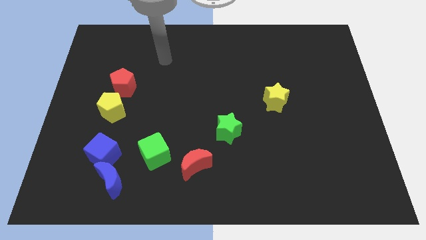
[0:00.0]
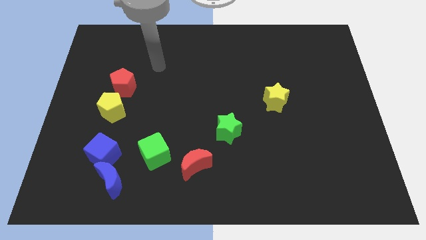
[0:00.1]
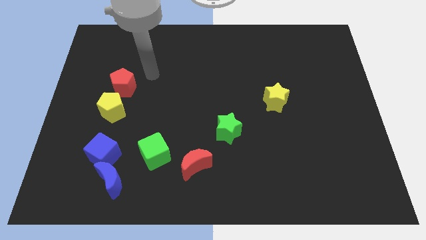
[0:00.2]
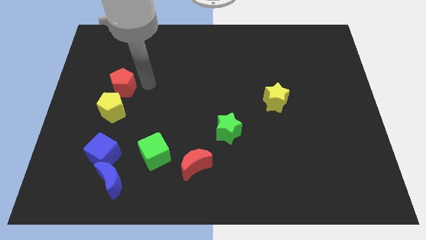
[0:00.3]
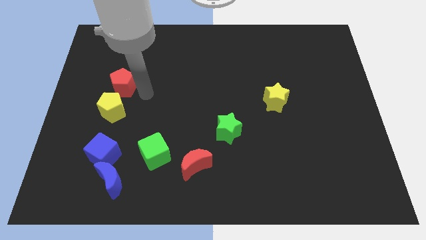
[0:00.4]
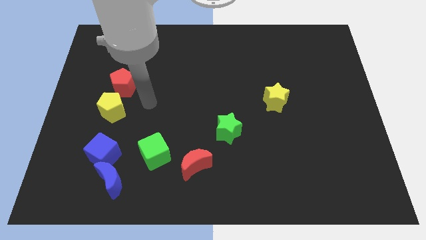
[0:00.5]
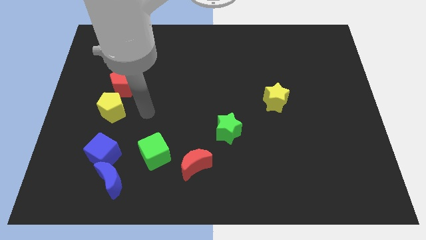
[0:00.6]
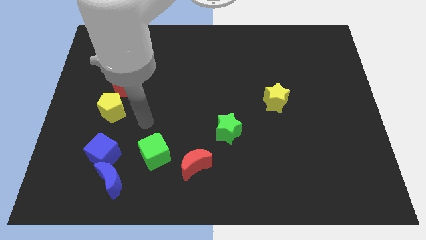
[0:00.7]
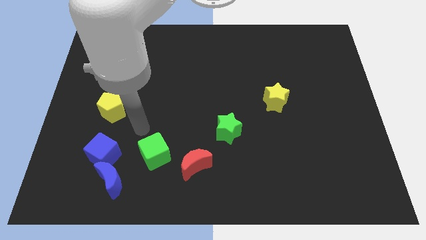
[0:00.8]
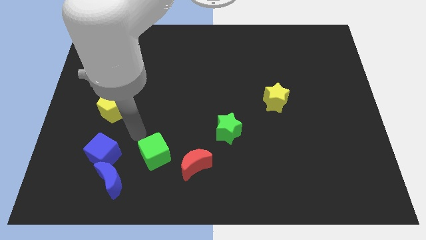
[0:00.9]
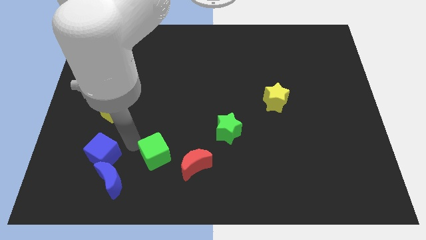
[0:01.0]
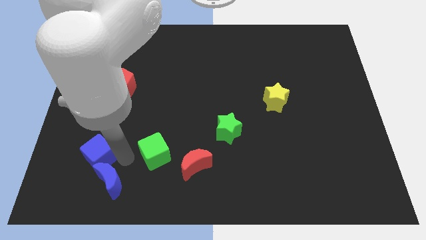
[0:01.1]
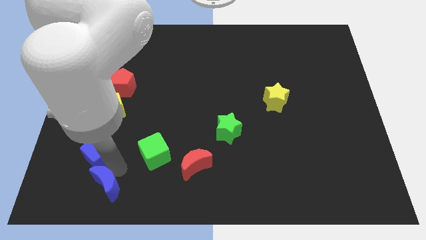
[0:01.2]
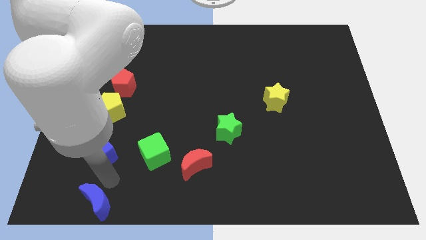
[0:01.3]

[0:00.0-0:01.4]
separate the blue cube from the blue moon

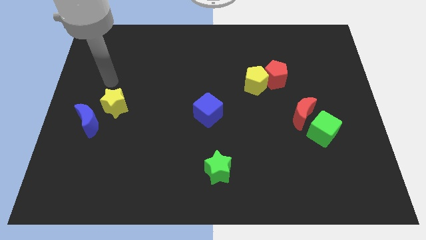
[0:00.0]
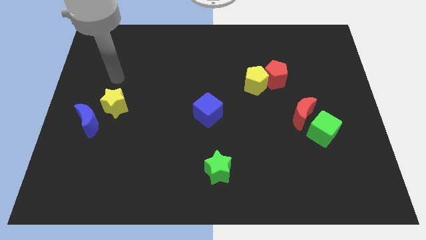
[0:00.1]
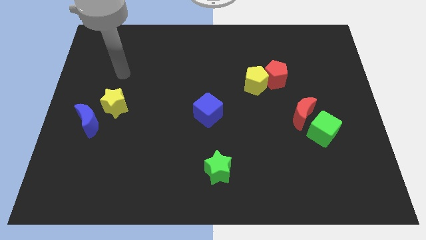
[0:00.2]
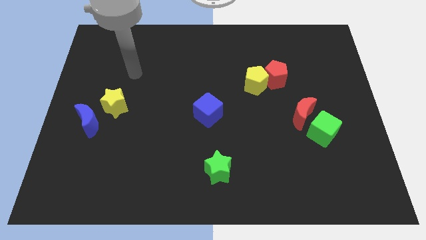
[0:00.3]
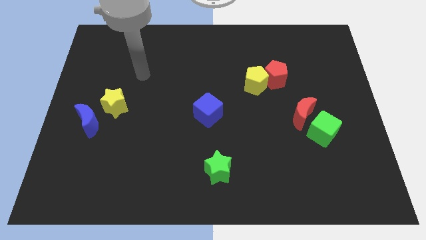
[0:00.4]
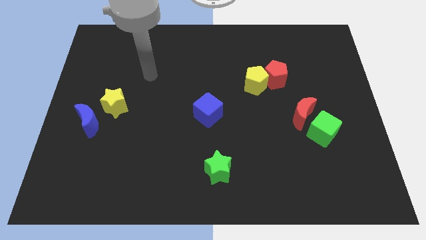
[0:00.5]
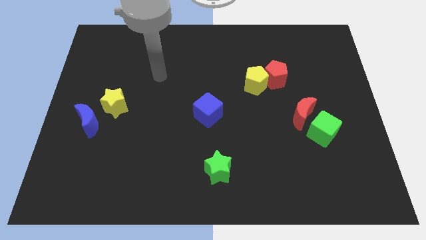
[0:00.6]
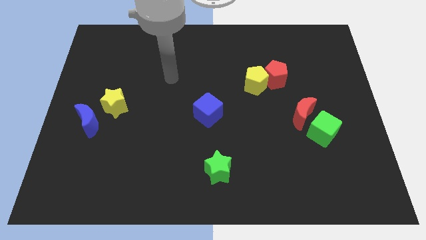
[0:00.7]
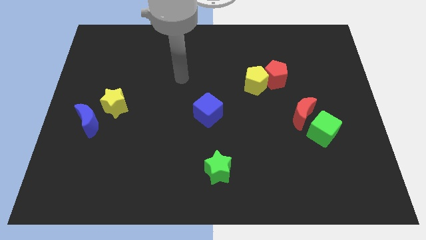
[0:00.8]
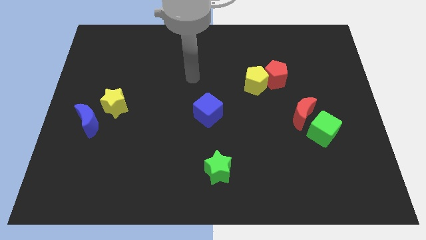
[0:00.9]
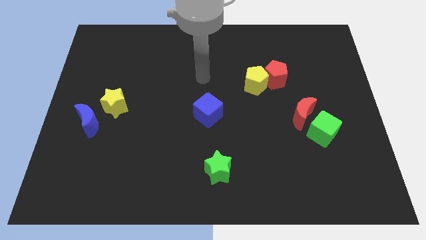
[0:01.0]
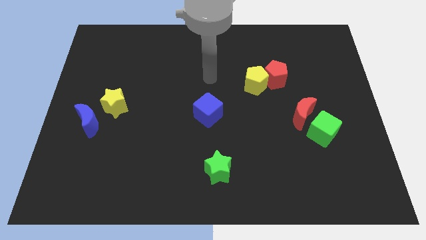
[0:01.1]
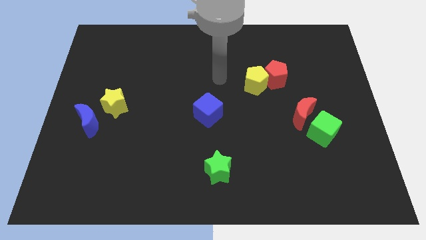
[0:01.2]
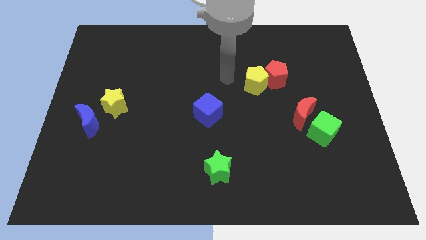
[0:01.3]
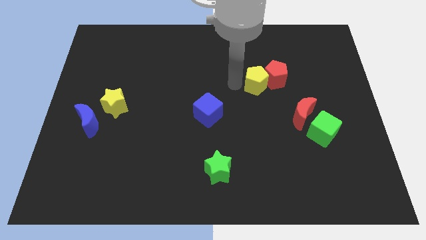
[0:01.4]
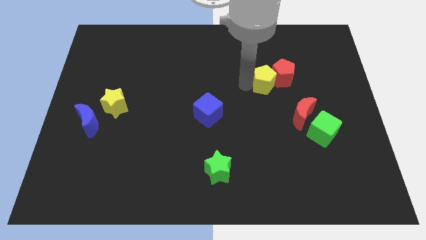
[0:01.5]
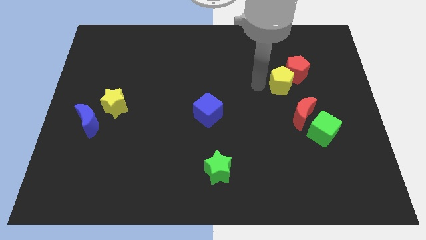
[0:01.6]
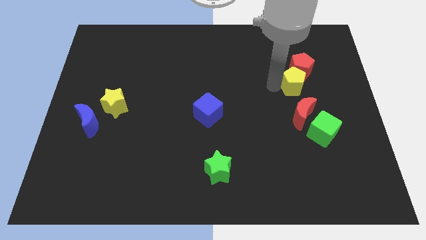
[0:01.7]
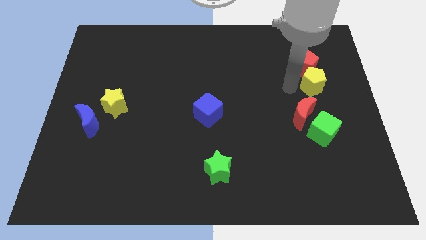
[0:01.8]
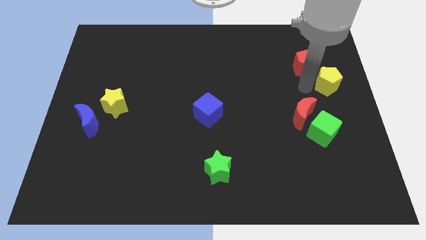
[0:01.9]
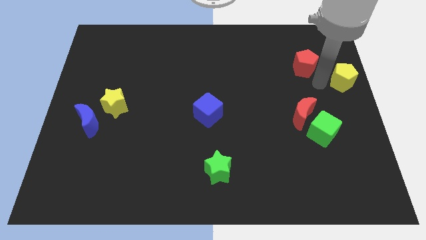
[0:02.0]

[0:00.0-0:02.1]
pull the red pentagon apart from the yellow pentagon

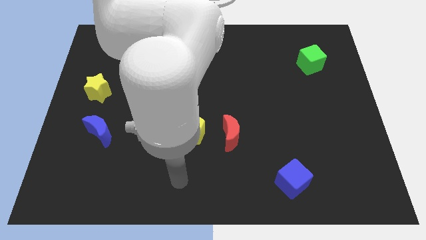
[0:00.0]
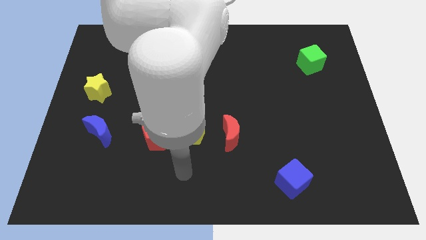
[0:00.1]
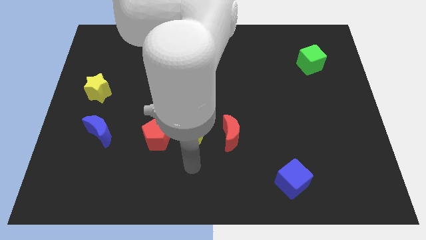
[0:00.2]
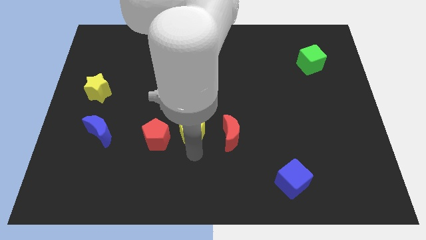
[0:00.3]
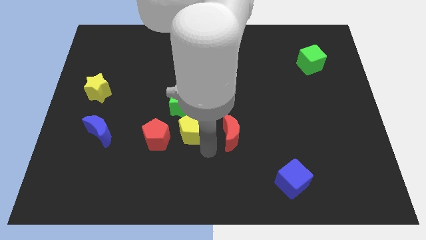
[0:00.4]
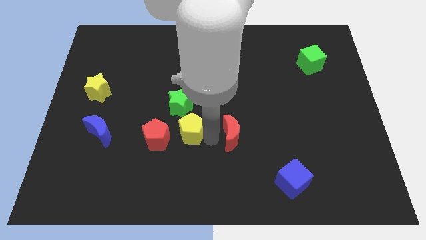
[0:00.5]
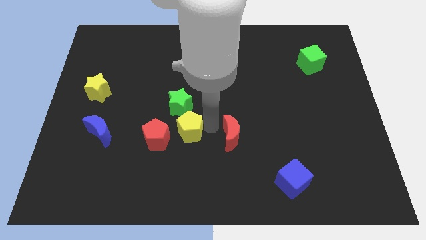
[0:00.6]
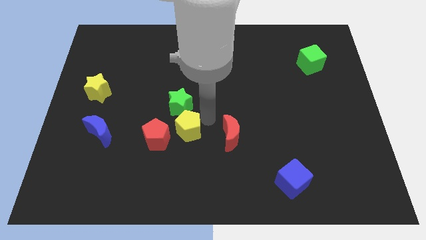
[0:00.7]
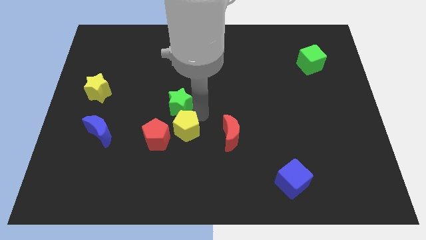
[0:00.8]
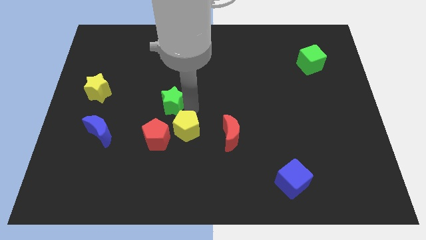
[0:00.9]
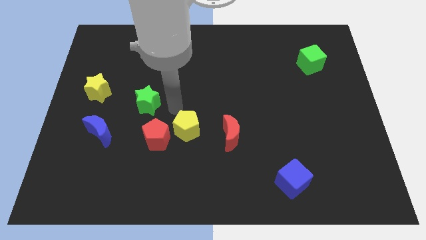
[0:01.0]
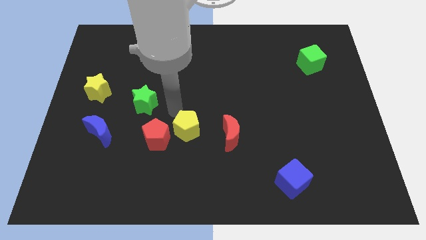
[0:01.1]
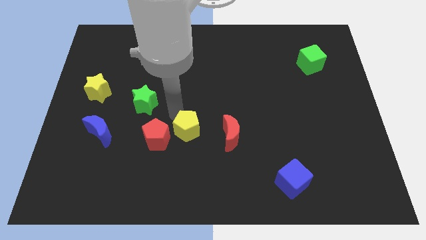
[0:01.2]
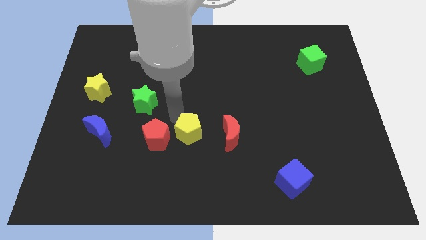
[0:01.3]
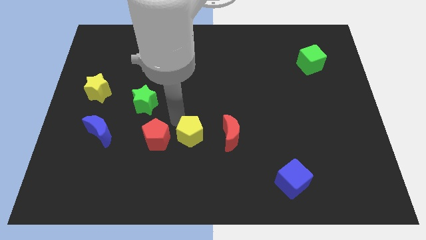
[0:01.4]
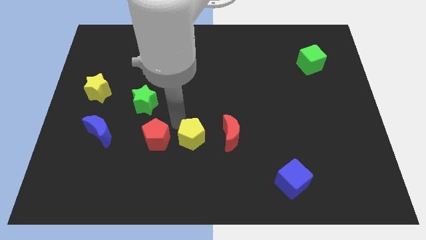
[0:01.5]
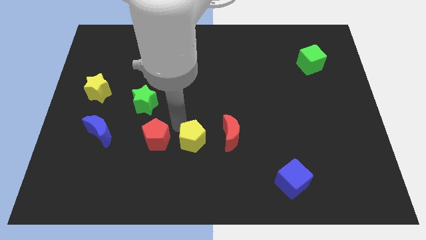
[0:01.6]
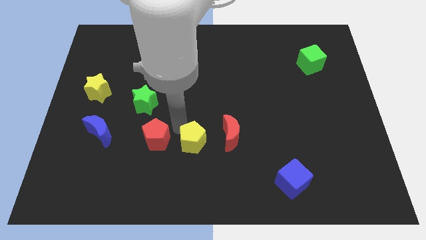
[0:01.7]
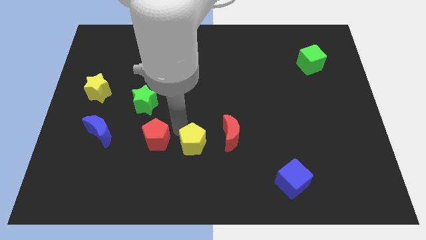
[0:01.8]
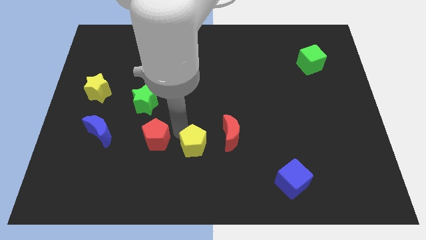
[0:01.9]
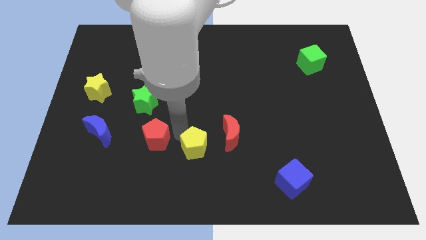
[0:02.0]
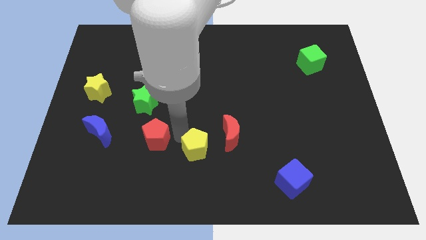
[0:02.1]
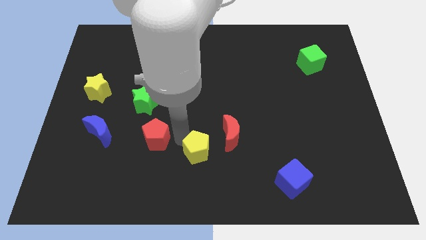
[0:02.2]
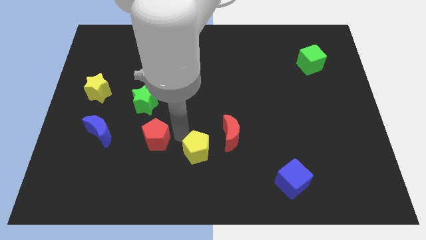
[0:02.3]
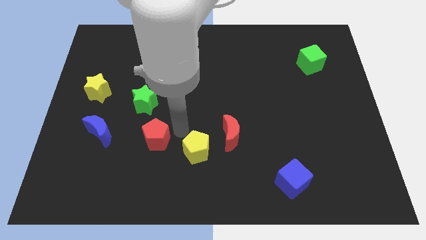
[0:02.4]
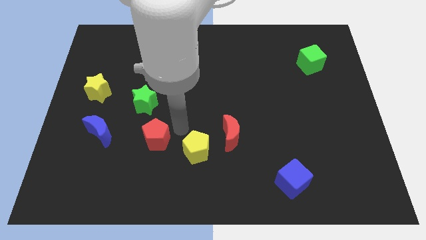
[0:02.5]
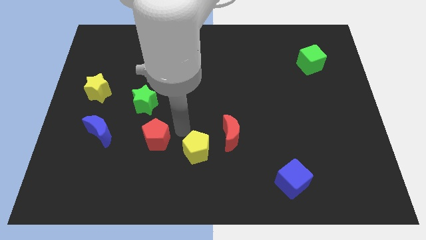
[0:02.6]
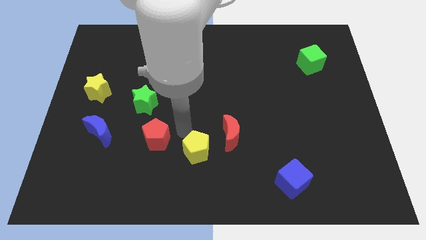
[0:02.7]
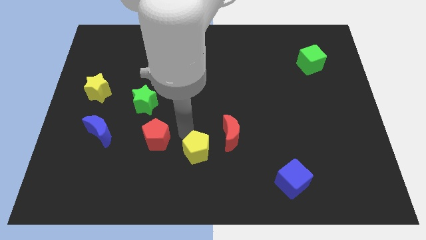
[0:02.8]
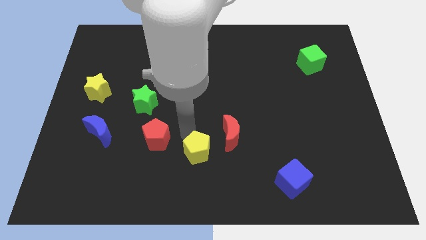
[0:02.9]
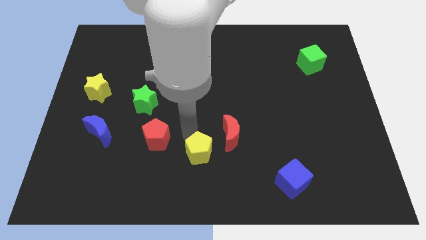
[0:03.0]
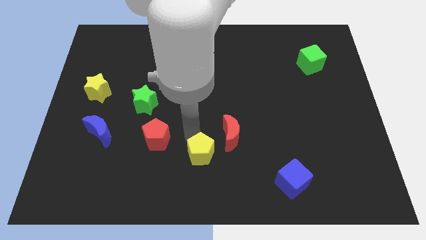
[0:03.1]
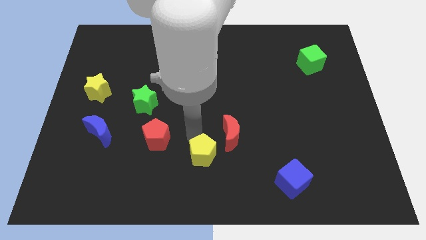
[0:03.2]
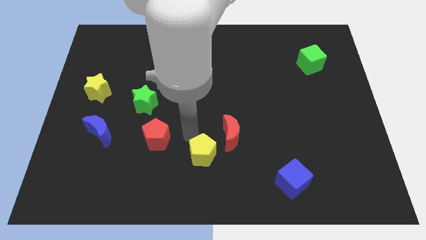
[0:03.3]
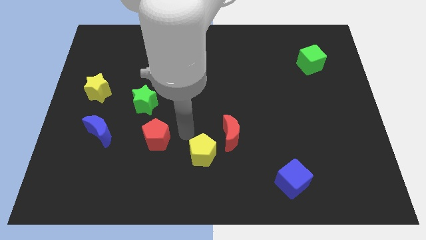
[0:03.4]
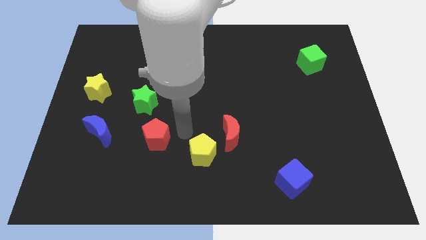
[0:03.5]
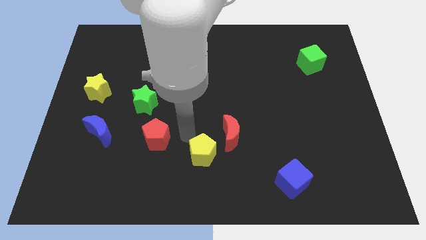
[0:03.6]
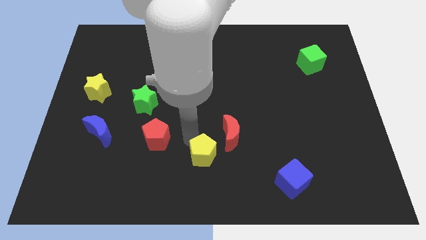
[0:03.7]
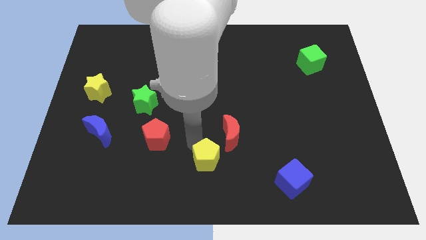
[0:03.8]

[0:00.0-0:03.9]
move the yellow pentagon away from the clump

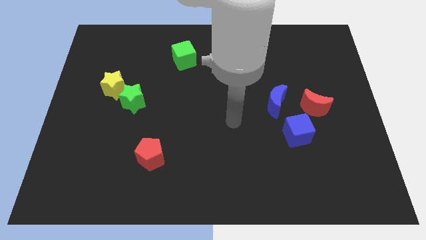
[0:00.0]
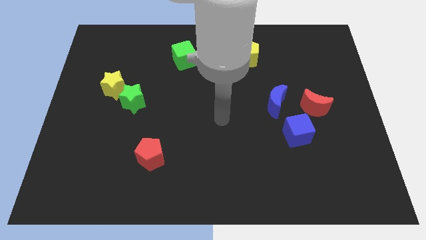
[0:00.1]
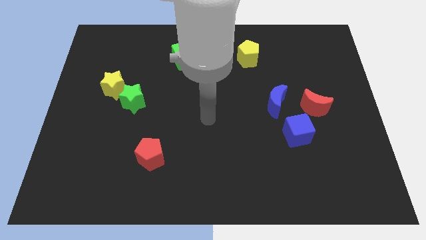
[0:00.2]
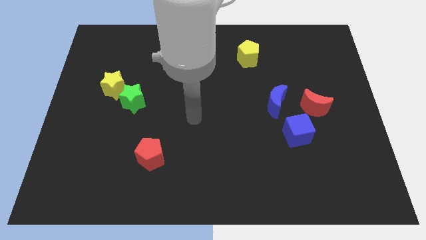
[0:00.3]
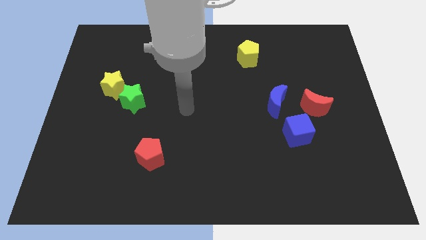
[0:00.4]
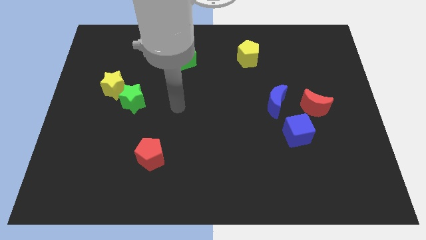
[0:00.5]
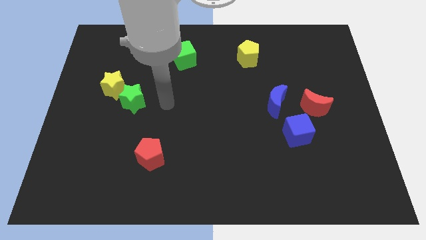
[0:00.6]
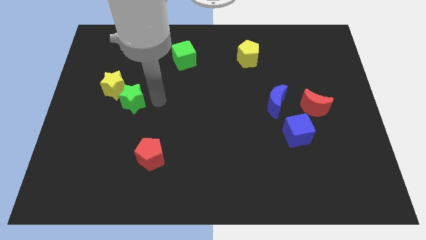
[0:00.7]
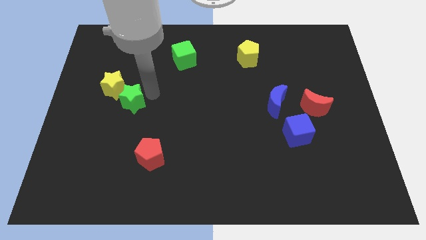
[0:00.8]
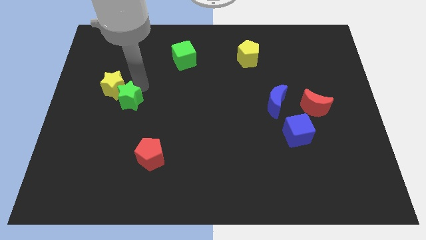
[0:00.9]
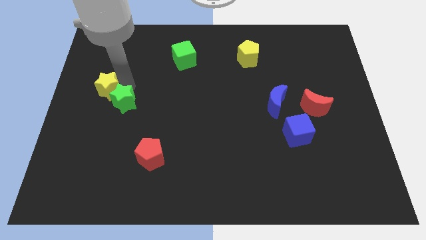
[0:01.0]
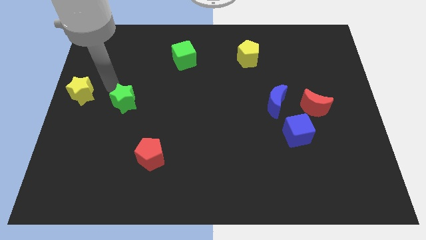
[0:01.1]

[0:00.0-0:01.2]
pull the green star apart from the yellow star

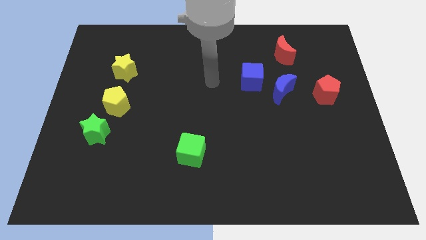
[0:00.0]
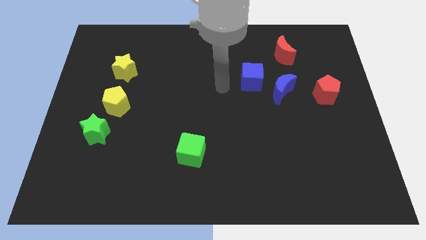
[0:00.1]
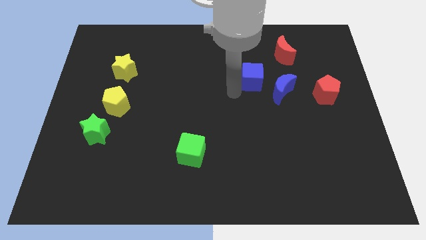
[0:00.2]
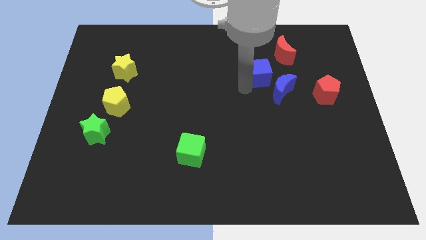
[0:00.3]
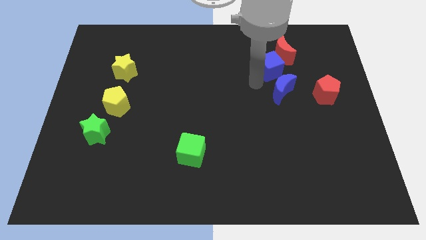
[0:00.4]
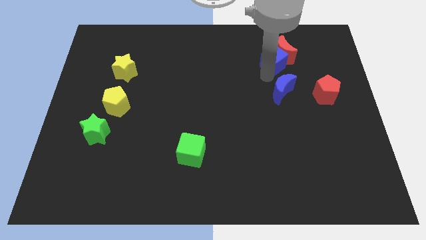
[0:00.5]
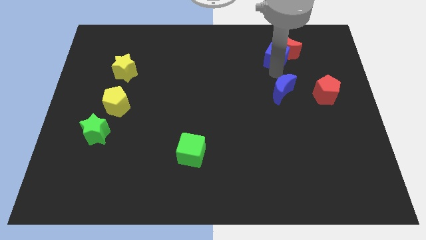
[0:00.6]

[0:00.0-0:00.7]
separate the blue moon from the blue cube
